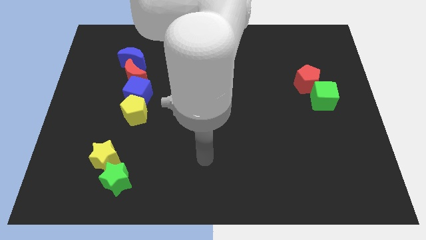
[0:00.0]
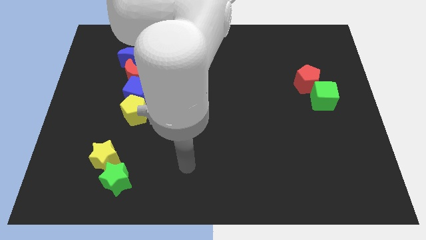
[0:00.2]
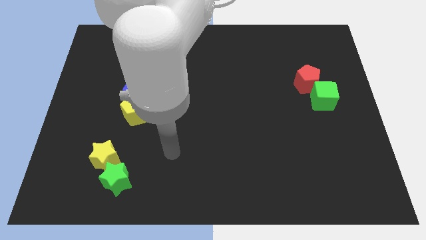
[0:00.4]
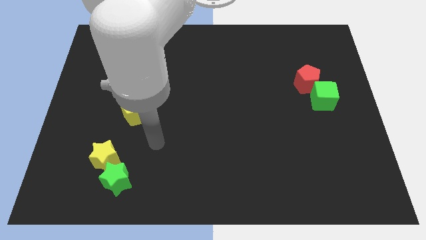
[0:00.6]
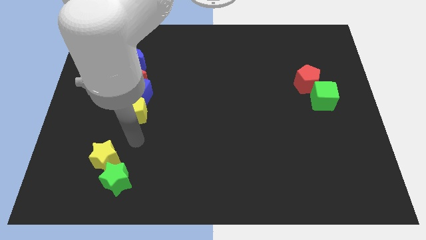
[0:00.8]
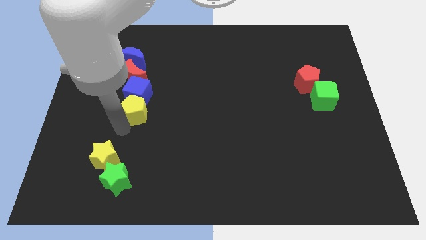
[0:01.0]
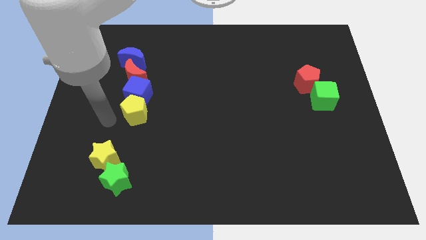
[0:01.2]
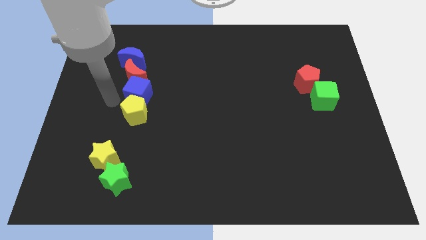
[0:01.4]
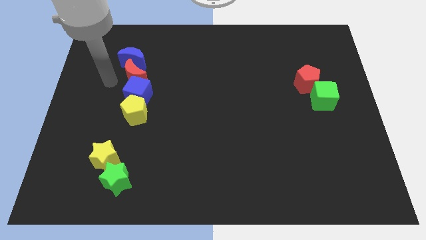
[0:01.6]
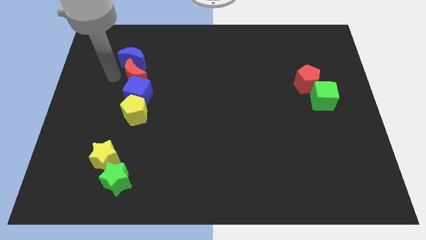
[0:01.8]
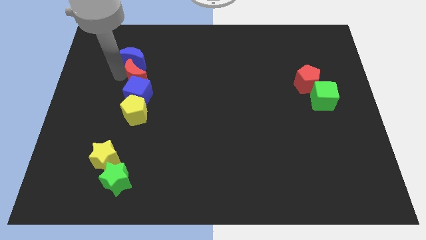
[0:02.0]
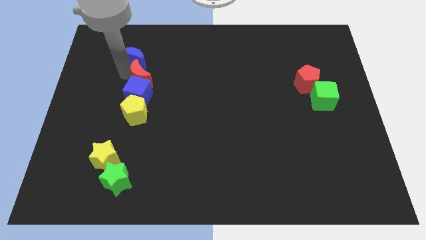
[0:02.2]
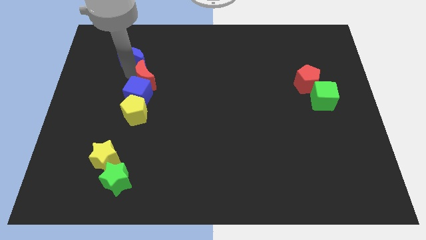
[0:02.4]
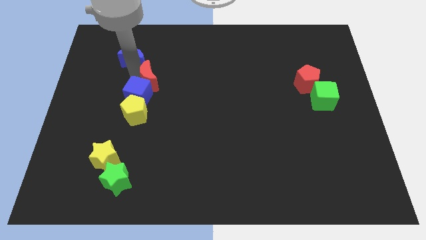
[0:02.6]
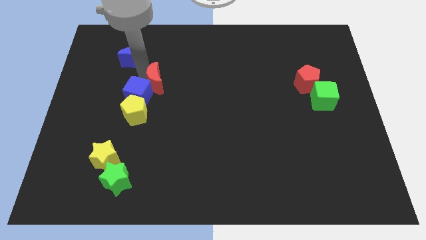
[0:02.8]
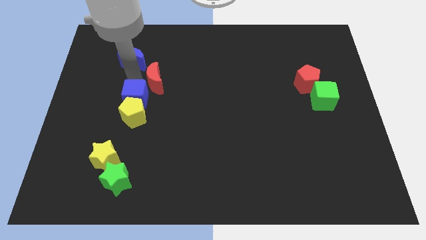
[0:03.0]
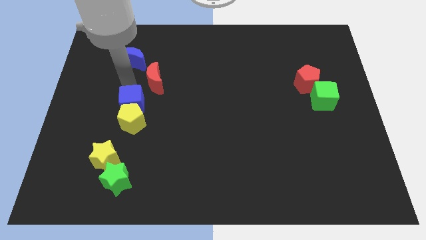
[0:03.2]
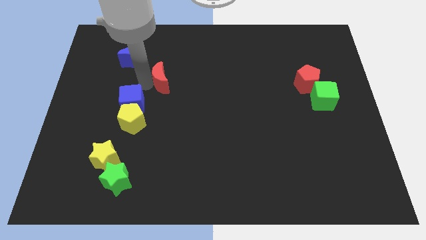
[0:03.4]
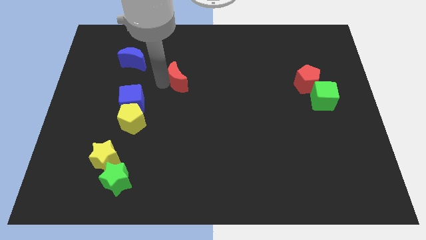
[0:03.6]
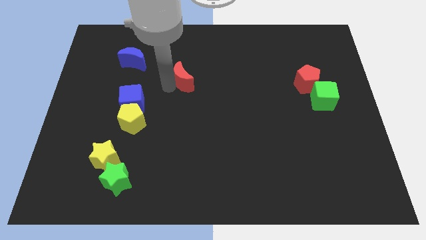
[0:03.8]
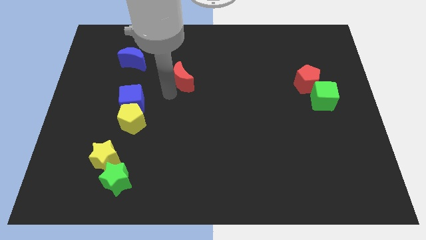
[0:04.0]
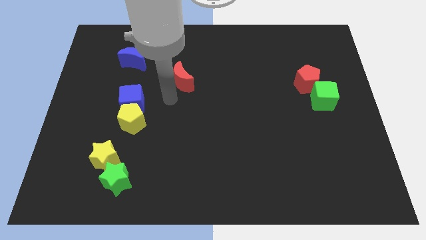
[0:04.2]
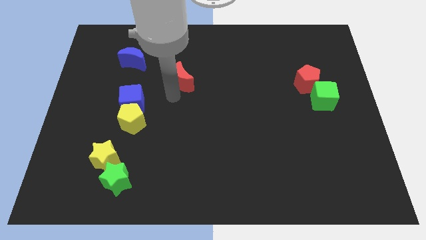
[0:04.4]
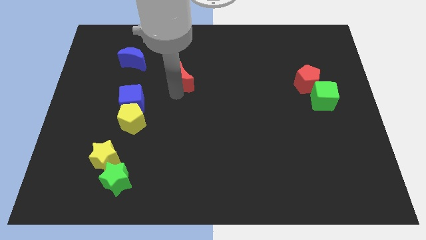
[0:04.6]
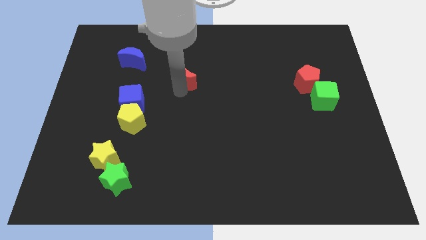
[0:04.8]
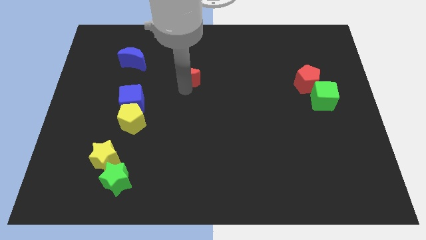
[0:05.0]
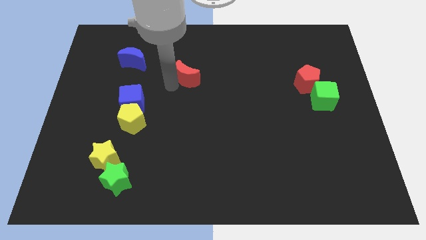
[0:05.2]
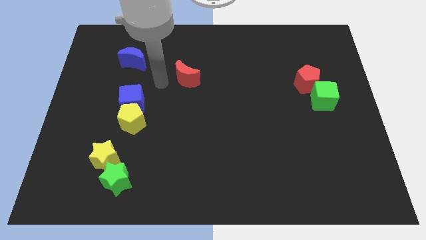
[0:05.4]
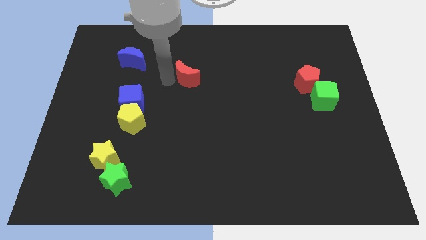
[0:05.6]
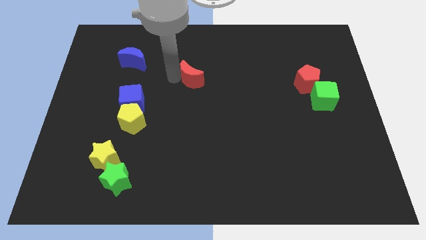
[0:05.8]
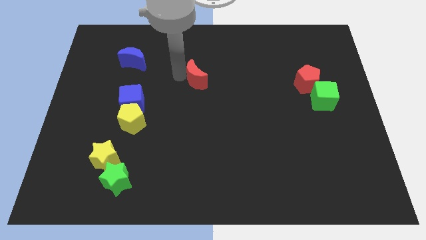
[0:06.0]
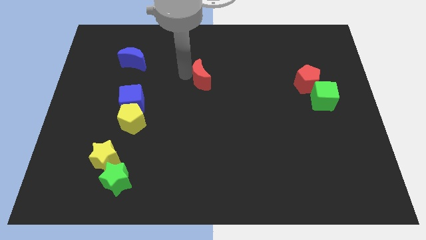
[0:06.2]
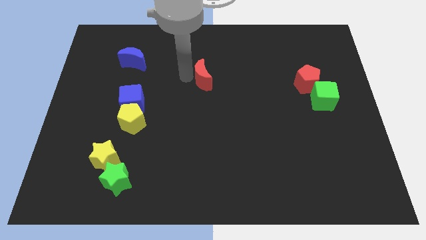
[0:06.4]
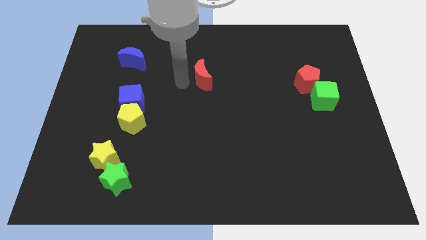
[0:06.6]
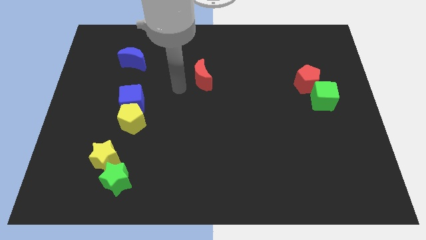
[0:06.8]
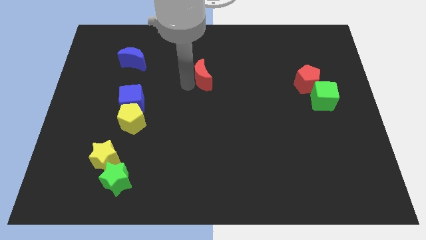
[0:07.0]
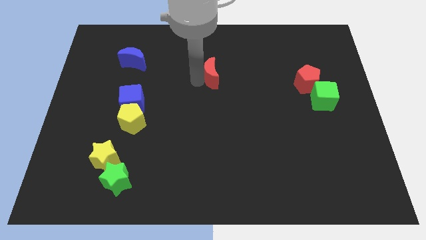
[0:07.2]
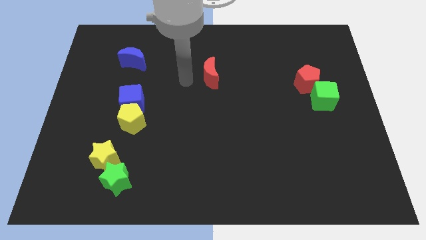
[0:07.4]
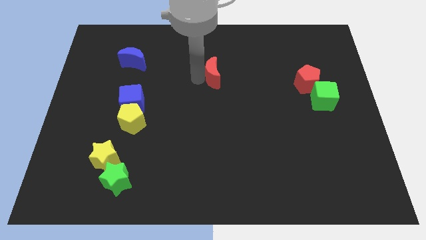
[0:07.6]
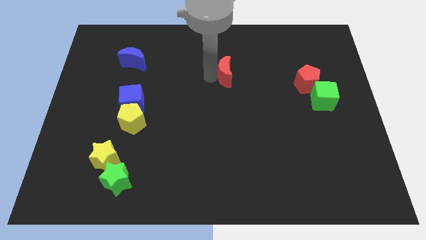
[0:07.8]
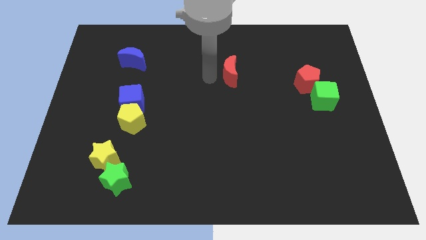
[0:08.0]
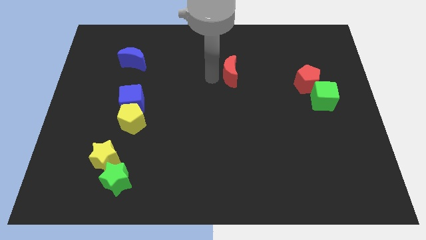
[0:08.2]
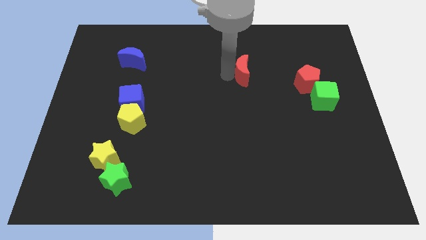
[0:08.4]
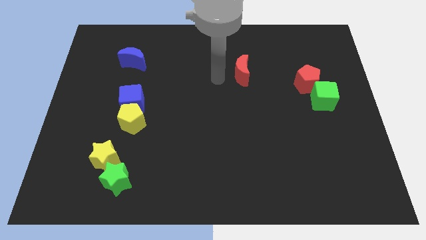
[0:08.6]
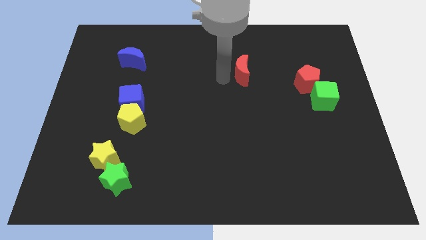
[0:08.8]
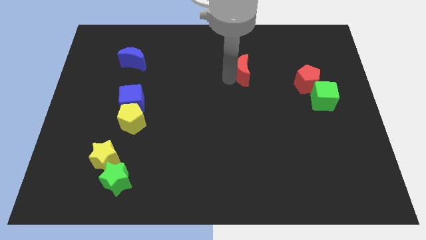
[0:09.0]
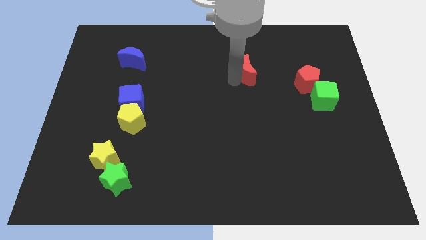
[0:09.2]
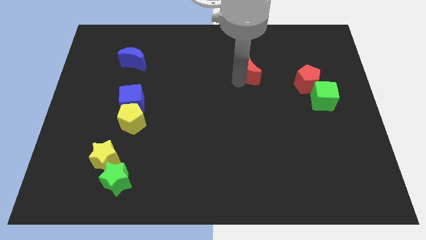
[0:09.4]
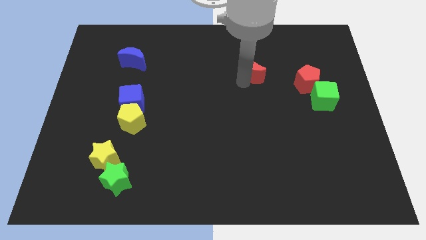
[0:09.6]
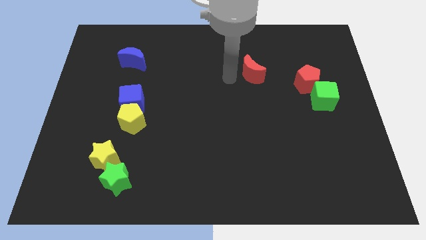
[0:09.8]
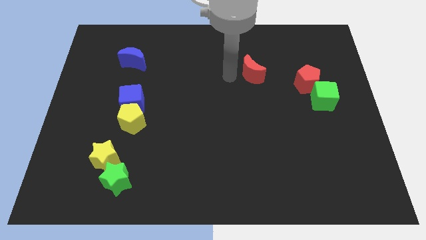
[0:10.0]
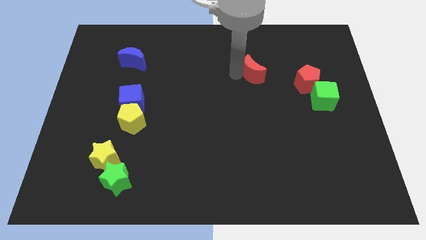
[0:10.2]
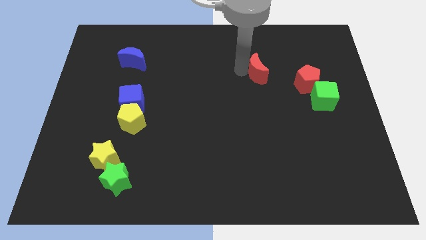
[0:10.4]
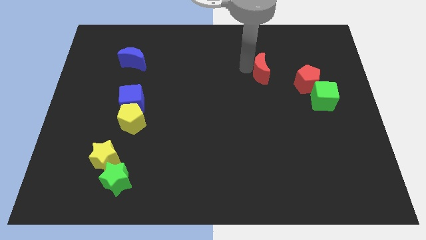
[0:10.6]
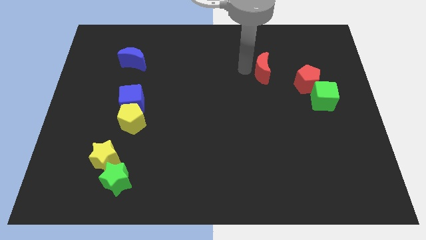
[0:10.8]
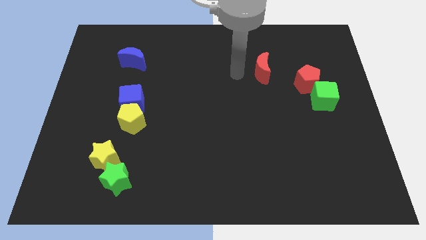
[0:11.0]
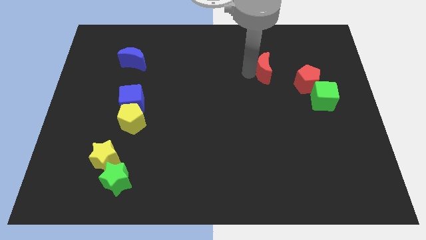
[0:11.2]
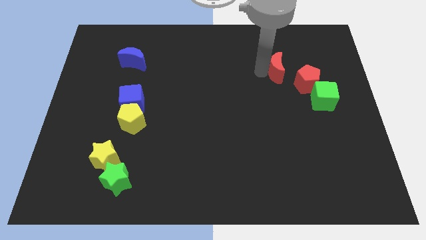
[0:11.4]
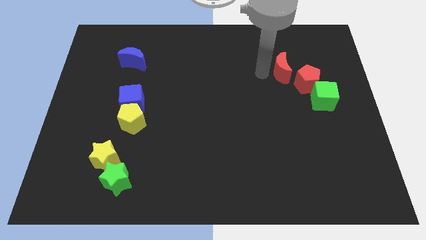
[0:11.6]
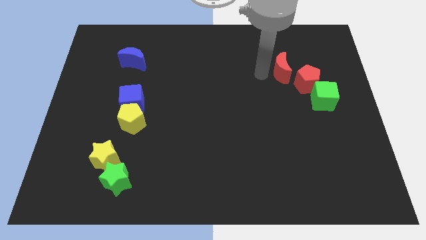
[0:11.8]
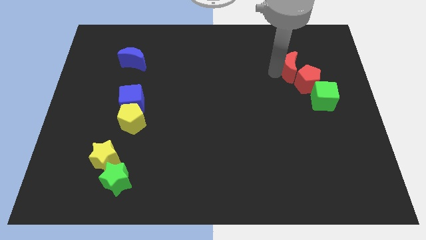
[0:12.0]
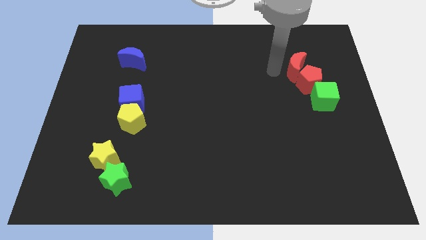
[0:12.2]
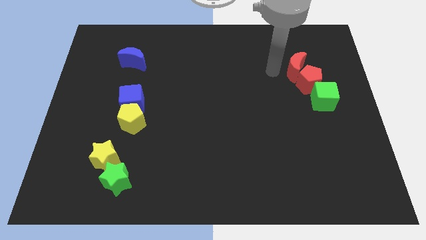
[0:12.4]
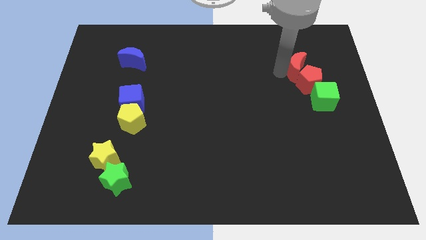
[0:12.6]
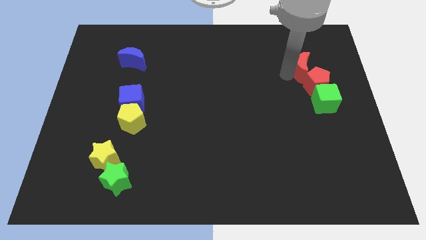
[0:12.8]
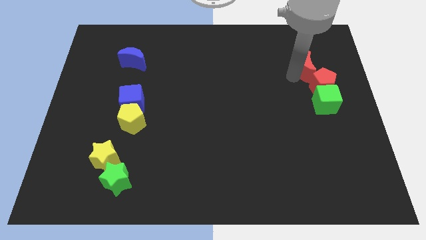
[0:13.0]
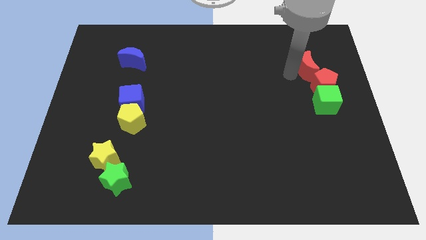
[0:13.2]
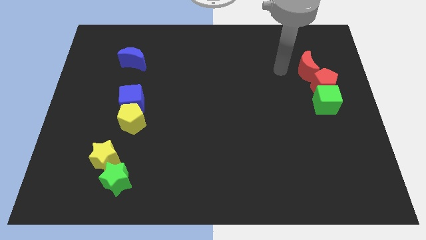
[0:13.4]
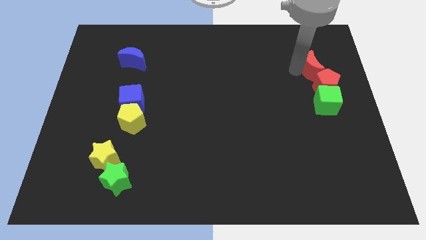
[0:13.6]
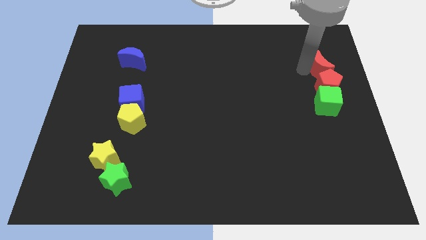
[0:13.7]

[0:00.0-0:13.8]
move the red moon diagonally up and to the right of the red pentagon
